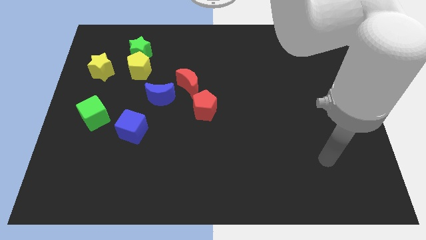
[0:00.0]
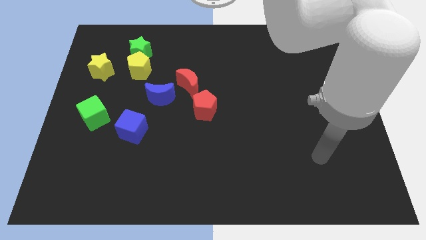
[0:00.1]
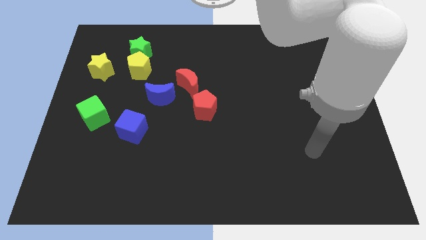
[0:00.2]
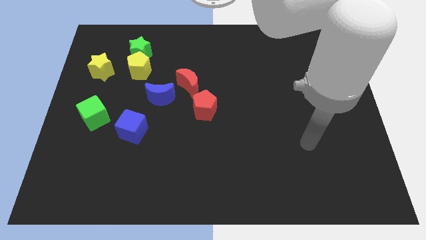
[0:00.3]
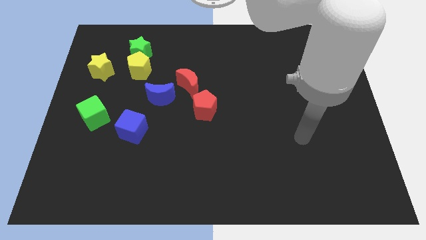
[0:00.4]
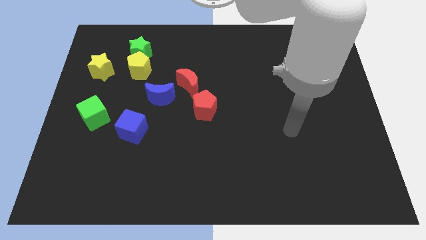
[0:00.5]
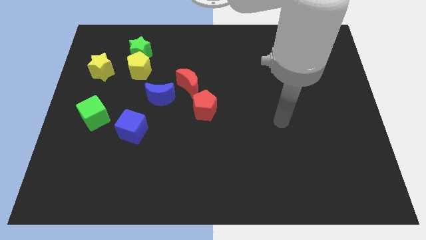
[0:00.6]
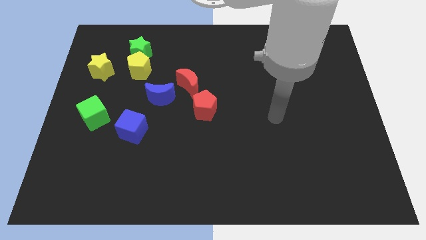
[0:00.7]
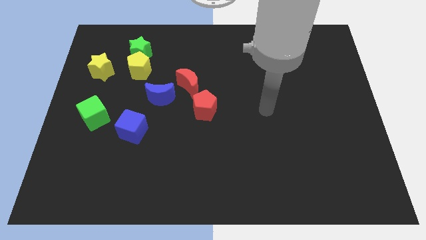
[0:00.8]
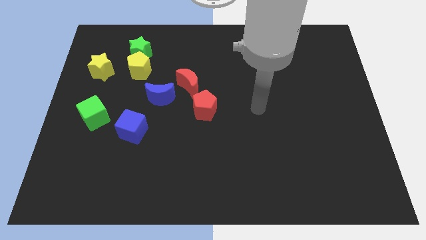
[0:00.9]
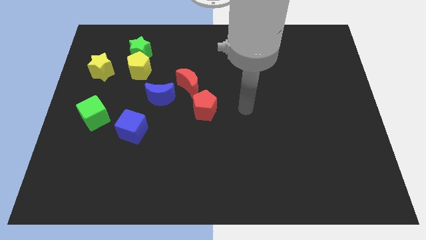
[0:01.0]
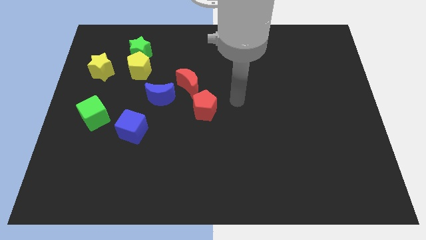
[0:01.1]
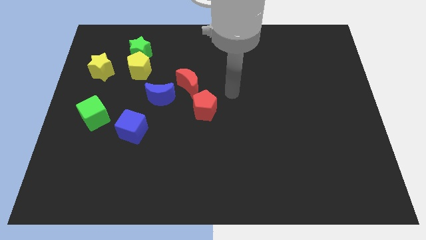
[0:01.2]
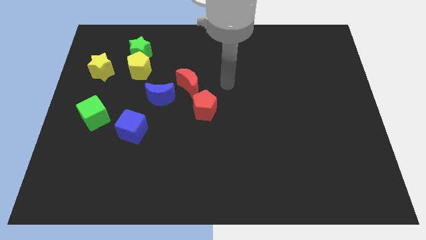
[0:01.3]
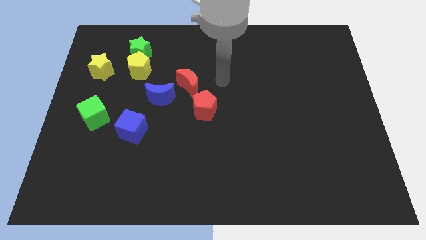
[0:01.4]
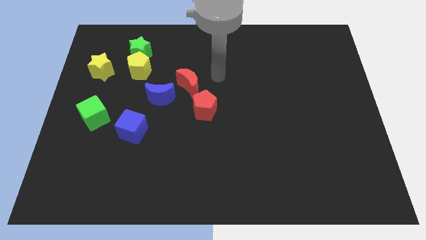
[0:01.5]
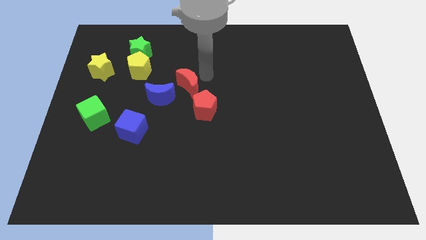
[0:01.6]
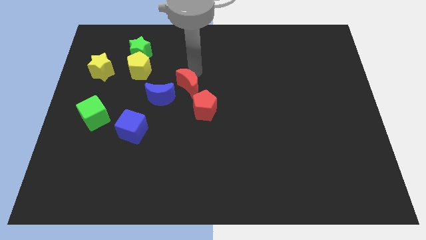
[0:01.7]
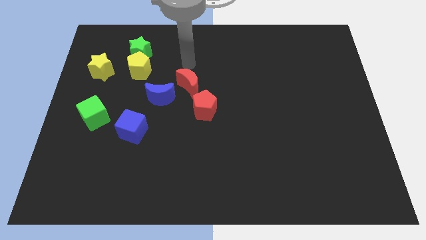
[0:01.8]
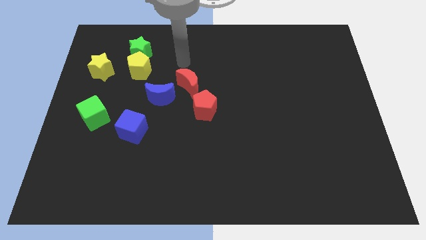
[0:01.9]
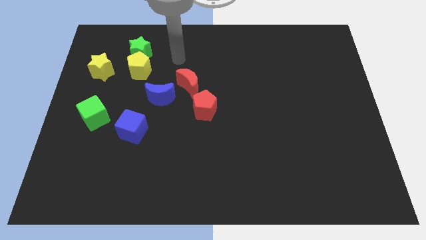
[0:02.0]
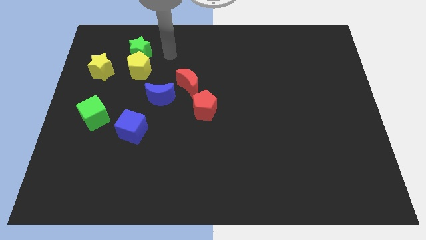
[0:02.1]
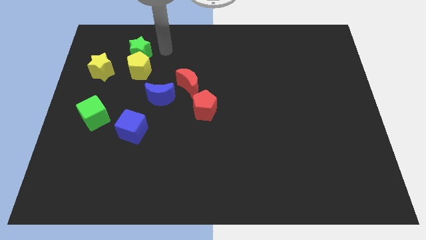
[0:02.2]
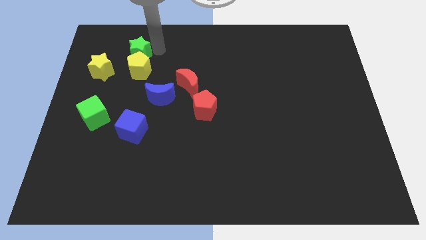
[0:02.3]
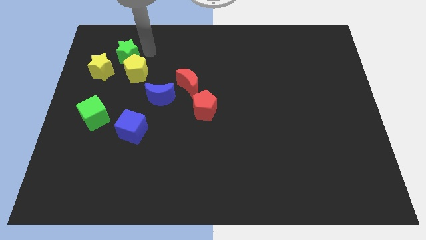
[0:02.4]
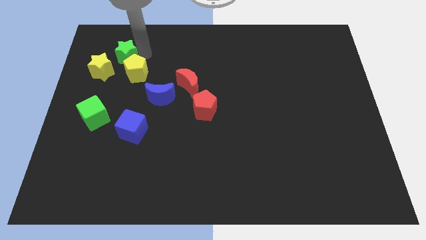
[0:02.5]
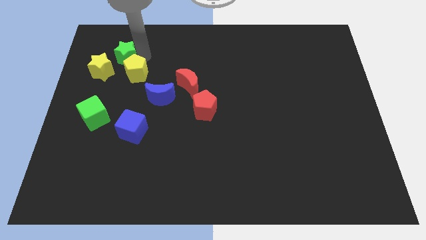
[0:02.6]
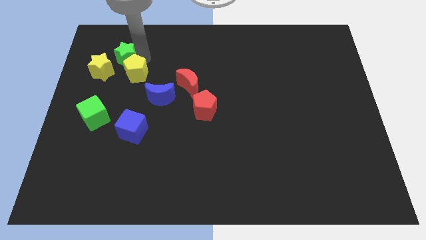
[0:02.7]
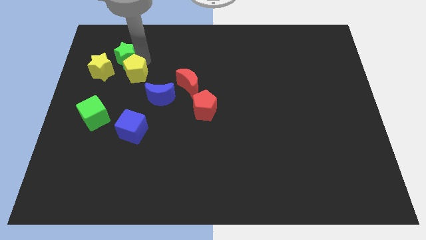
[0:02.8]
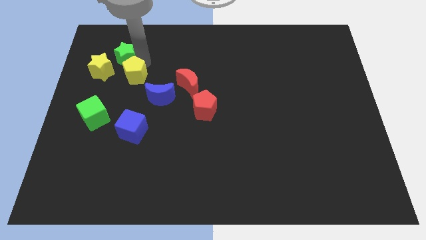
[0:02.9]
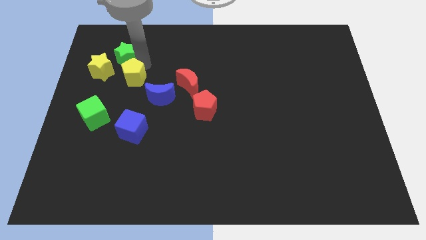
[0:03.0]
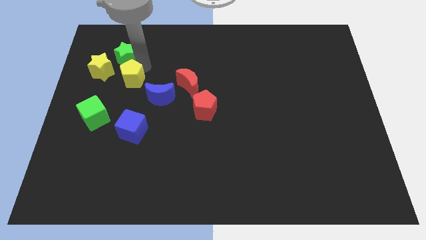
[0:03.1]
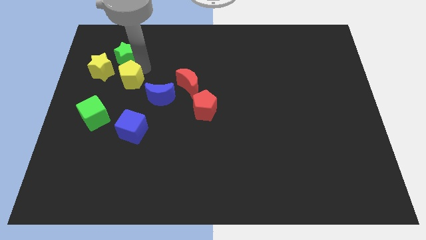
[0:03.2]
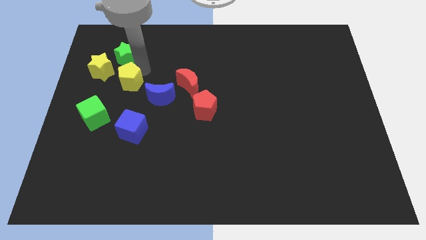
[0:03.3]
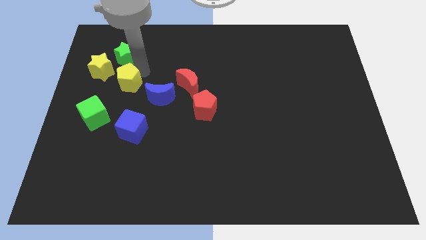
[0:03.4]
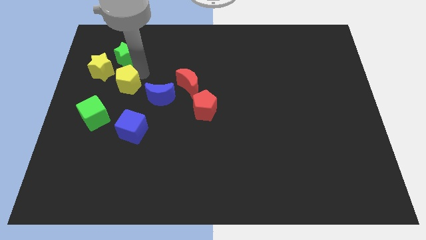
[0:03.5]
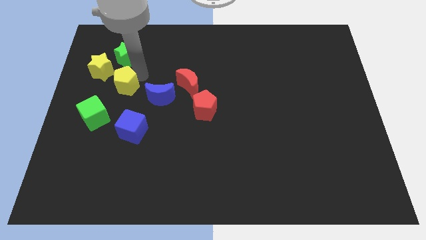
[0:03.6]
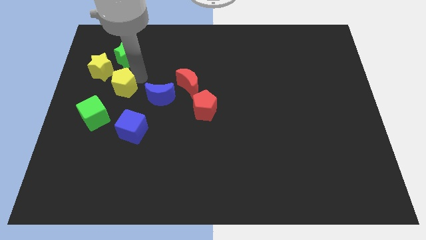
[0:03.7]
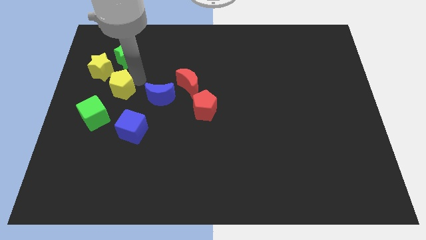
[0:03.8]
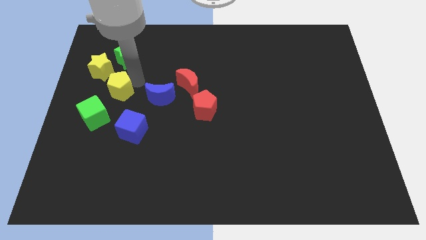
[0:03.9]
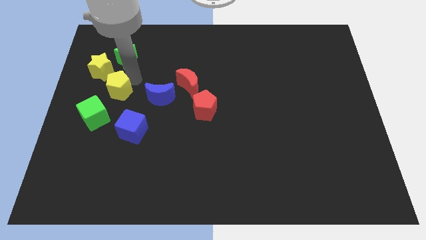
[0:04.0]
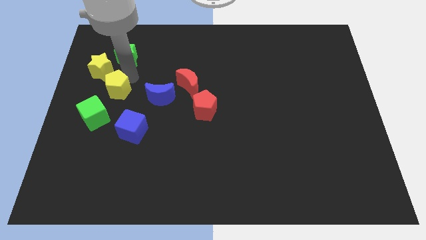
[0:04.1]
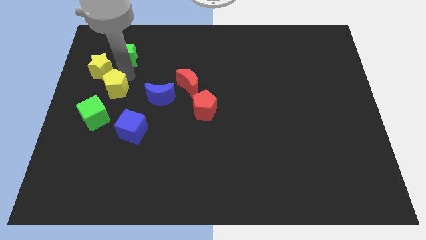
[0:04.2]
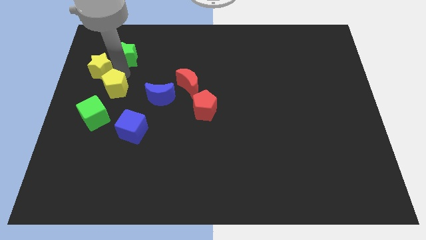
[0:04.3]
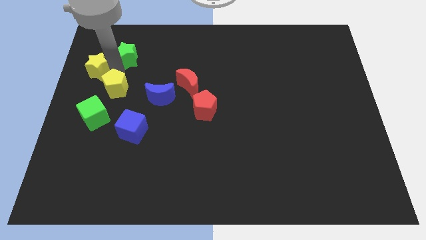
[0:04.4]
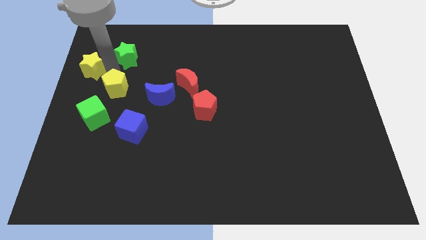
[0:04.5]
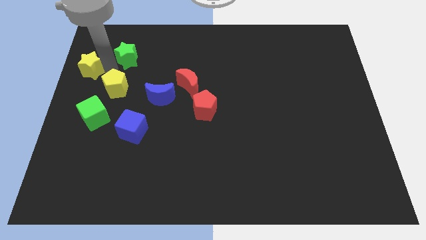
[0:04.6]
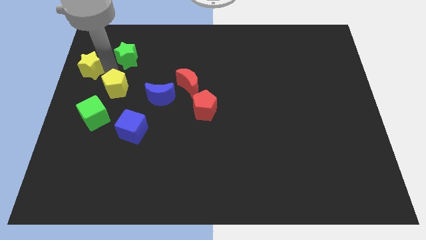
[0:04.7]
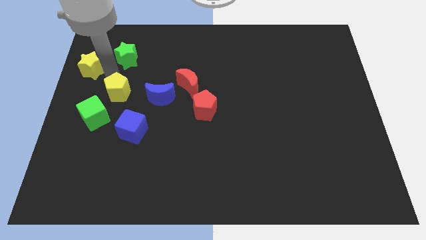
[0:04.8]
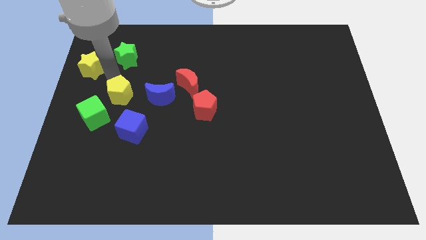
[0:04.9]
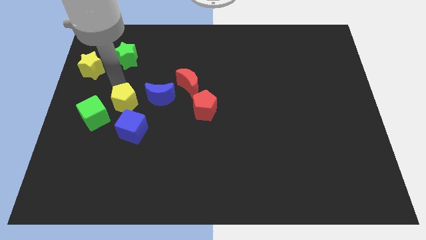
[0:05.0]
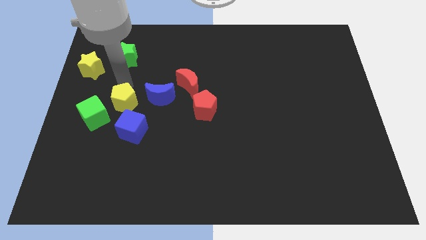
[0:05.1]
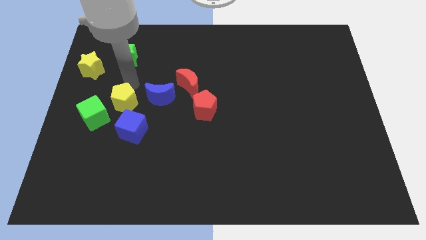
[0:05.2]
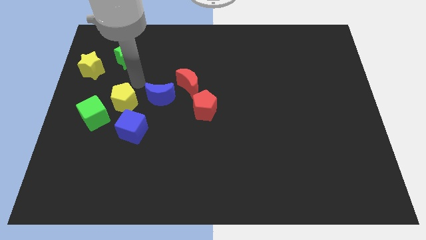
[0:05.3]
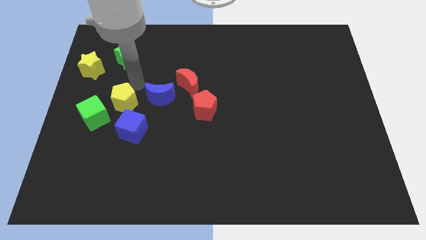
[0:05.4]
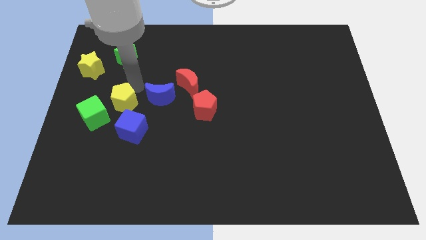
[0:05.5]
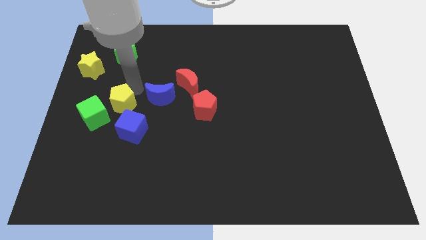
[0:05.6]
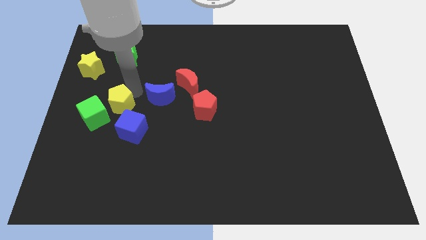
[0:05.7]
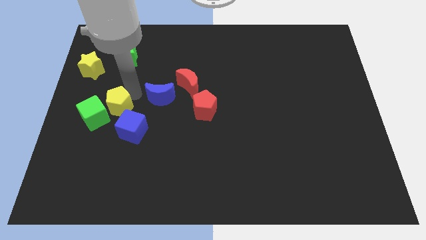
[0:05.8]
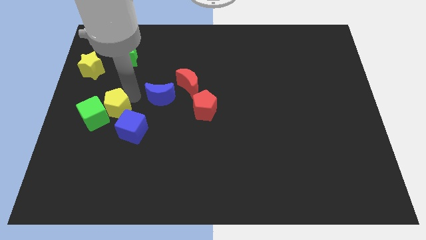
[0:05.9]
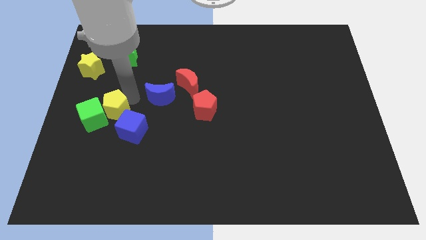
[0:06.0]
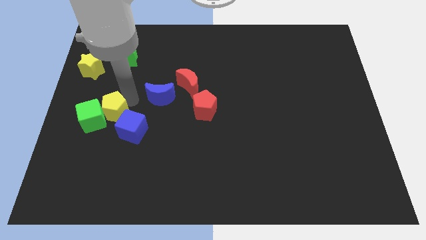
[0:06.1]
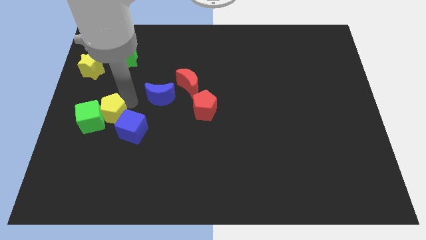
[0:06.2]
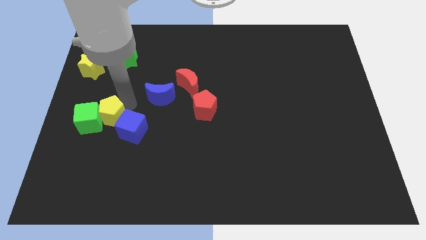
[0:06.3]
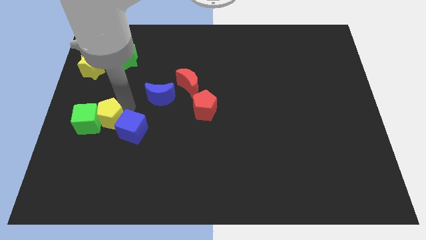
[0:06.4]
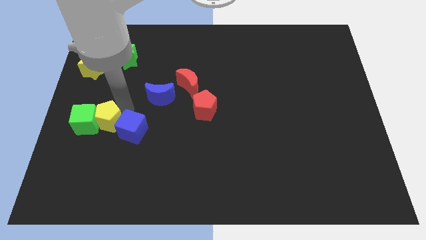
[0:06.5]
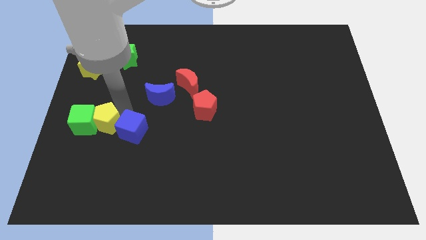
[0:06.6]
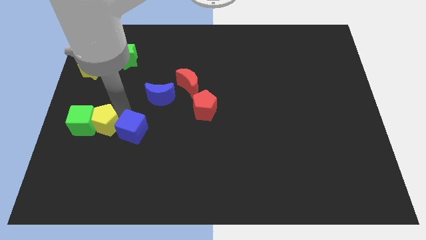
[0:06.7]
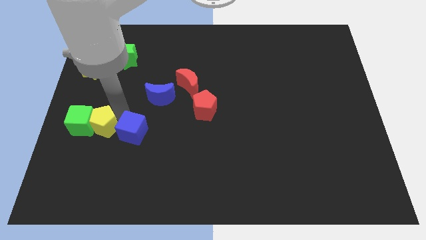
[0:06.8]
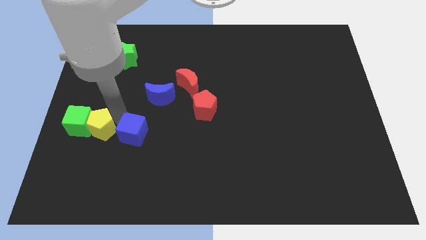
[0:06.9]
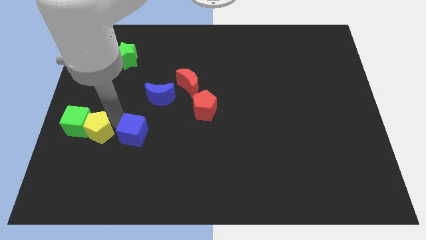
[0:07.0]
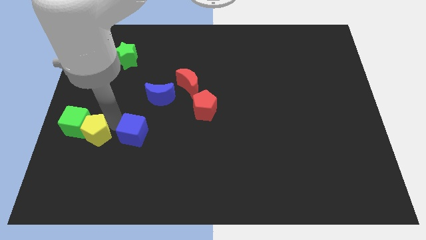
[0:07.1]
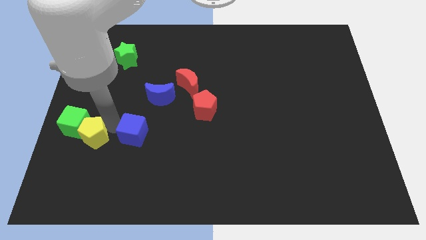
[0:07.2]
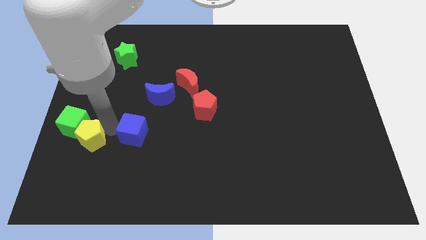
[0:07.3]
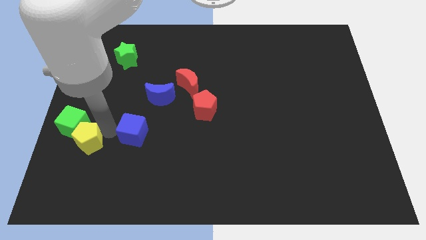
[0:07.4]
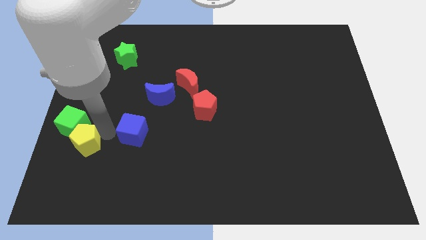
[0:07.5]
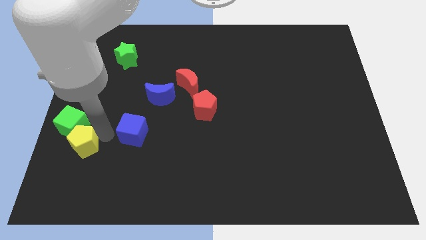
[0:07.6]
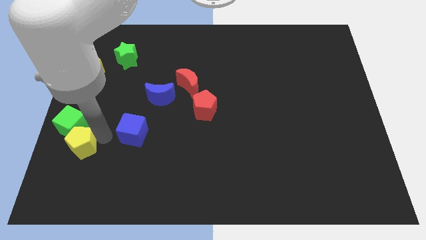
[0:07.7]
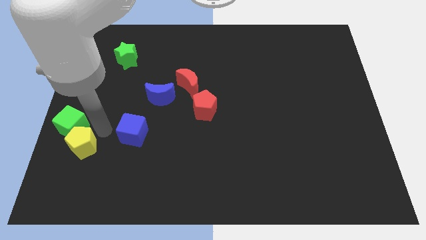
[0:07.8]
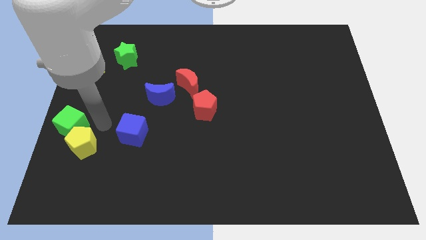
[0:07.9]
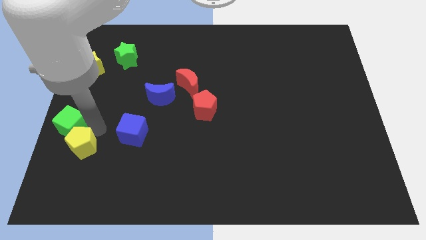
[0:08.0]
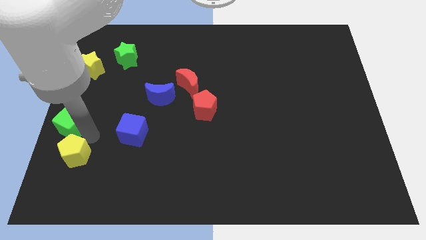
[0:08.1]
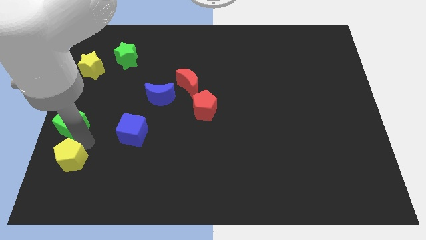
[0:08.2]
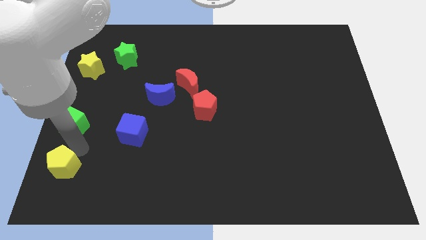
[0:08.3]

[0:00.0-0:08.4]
put the yellow pentagon to the bottom left of the board
